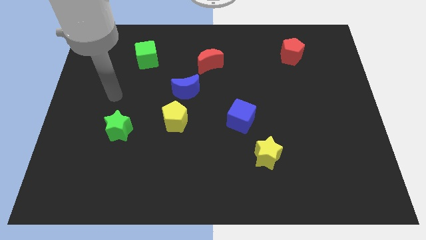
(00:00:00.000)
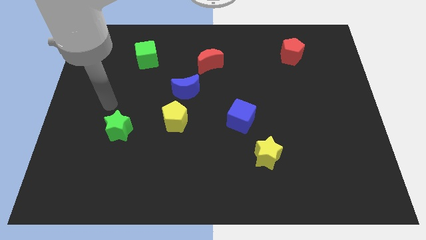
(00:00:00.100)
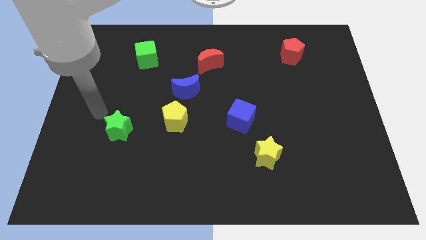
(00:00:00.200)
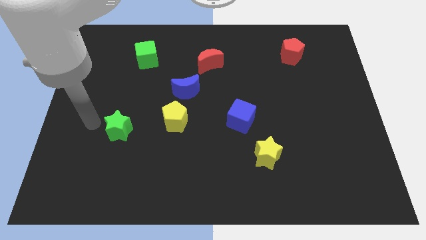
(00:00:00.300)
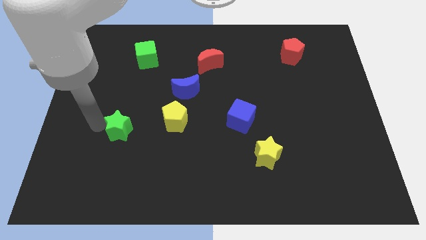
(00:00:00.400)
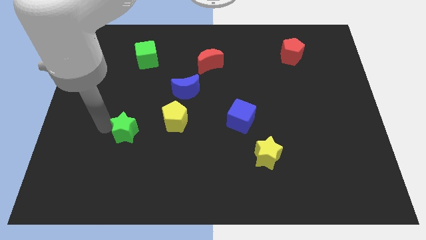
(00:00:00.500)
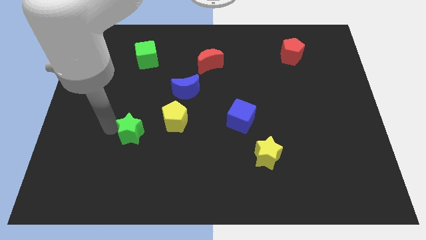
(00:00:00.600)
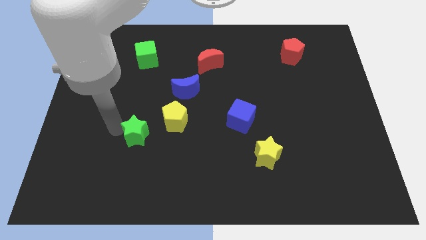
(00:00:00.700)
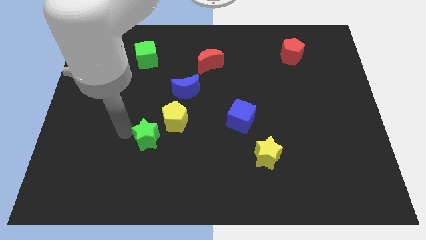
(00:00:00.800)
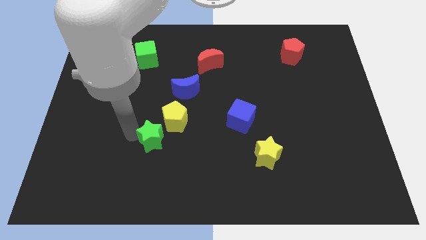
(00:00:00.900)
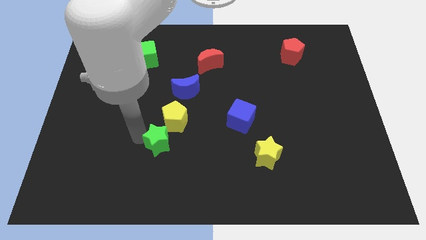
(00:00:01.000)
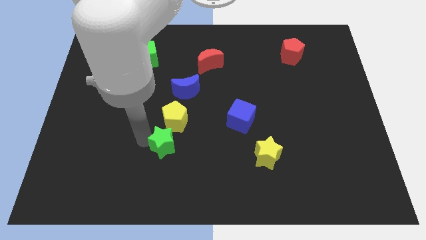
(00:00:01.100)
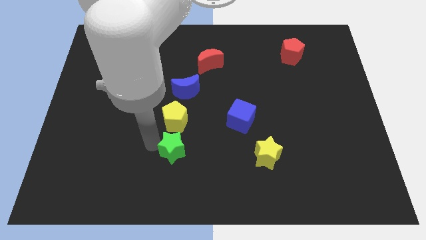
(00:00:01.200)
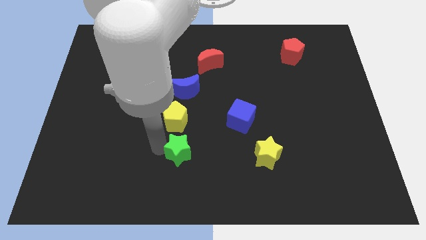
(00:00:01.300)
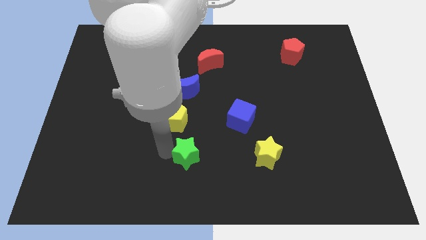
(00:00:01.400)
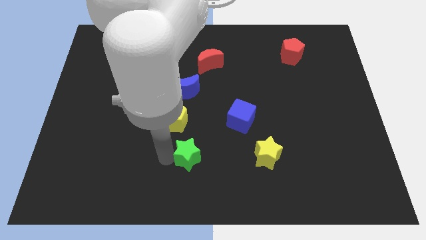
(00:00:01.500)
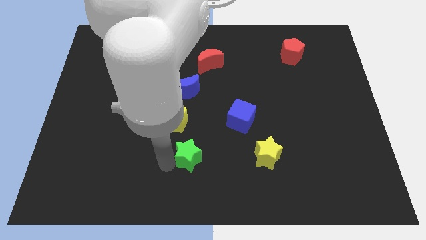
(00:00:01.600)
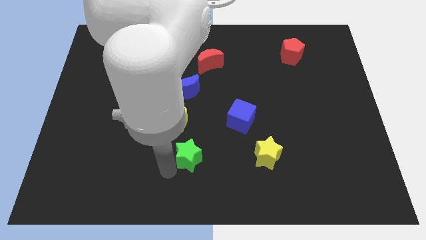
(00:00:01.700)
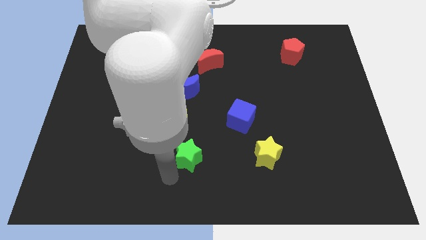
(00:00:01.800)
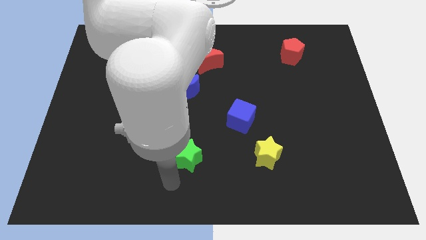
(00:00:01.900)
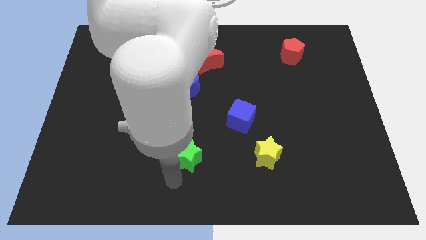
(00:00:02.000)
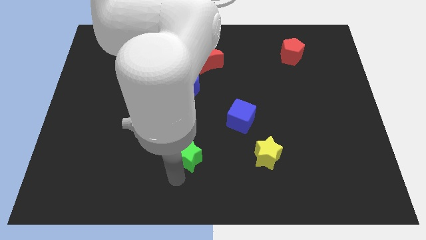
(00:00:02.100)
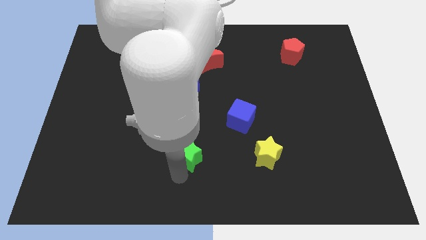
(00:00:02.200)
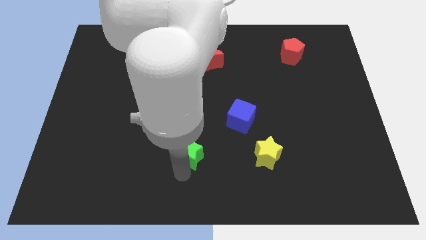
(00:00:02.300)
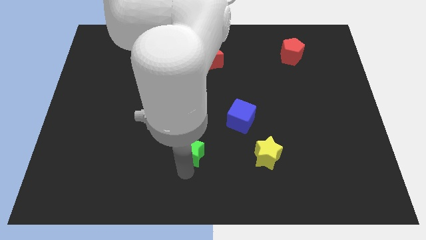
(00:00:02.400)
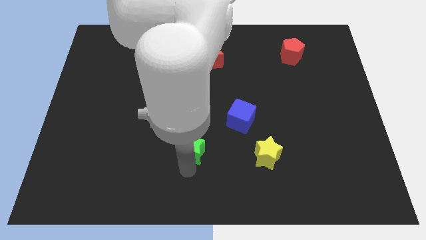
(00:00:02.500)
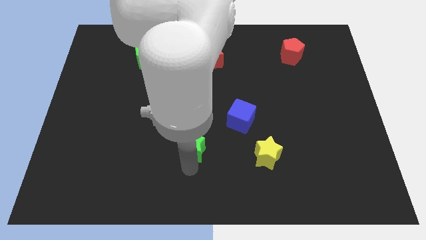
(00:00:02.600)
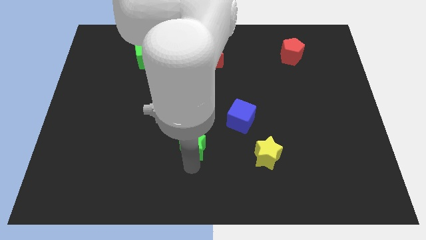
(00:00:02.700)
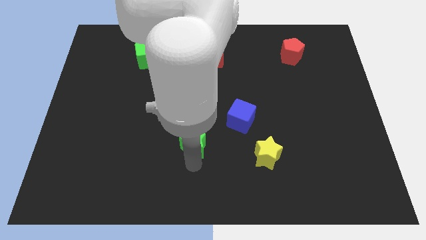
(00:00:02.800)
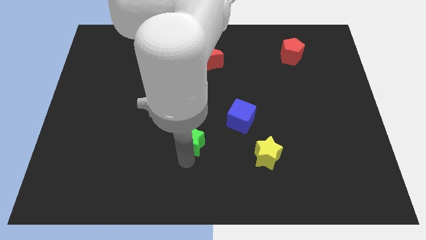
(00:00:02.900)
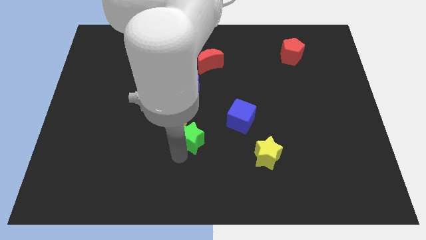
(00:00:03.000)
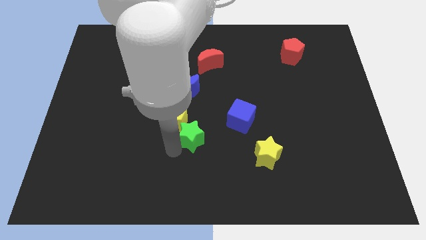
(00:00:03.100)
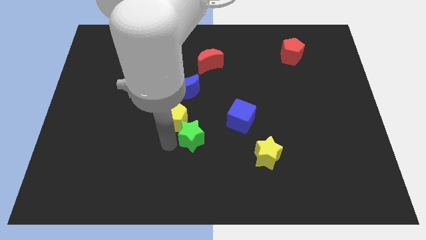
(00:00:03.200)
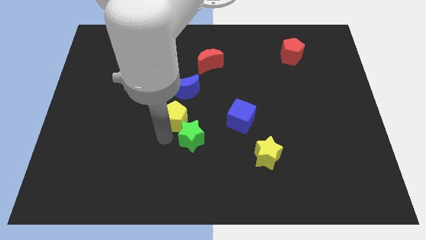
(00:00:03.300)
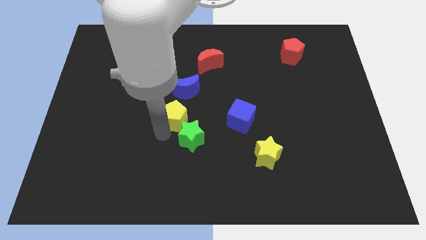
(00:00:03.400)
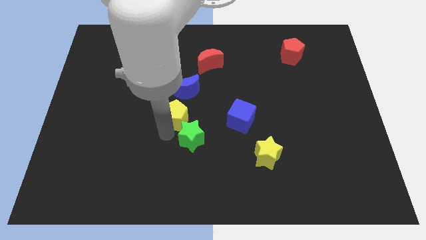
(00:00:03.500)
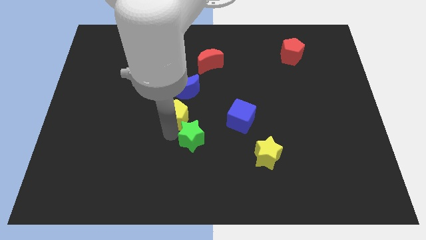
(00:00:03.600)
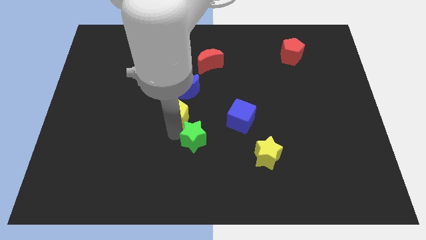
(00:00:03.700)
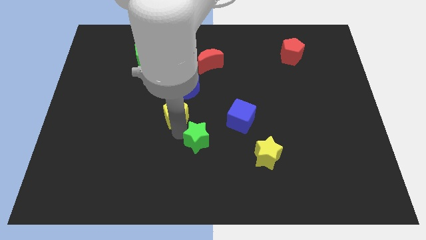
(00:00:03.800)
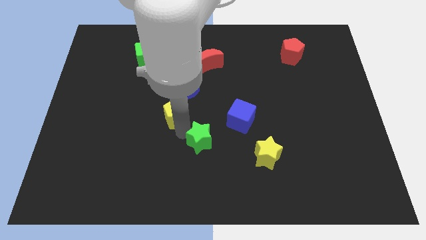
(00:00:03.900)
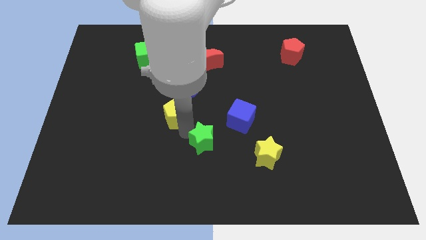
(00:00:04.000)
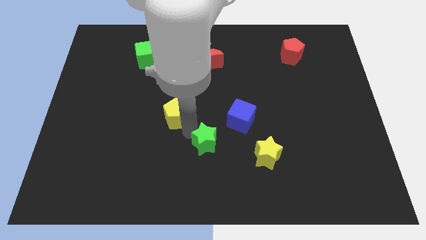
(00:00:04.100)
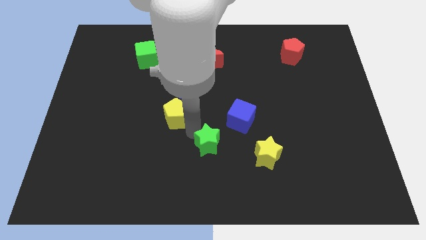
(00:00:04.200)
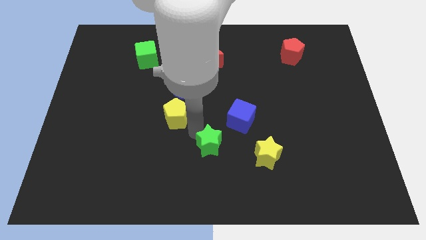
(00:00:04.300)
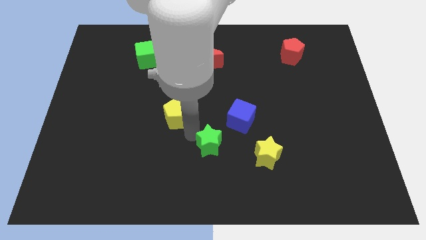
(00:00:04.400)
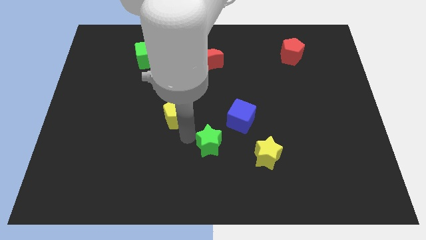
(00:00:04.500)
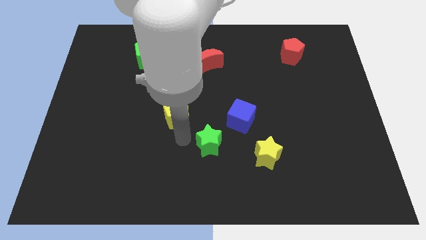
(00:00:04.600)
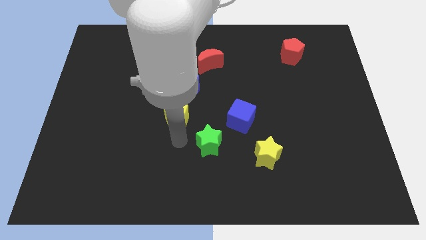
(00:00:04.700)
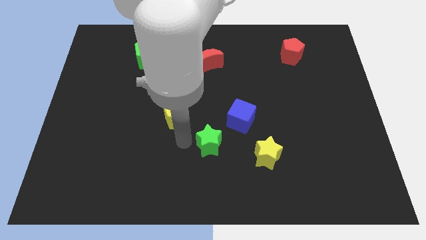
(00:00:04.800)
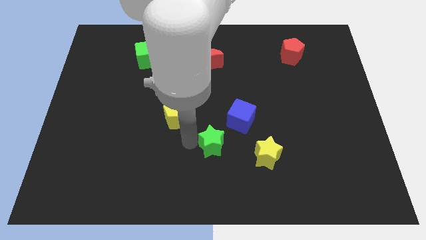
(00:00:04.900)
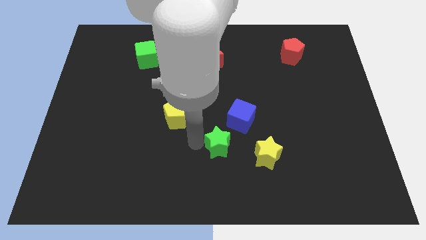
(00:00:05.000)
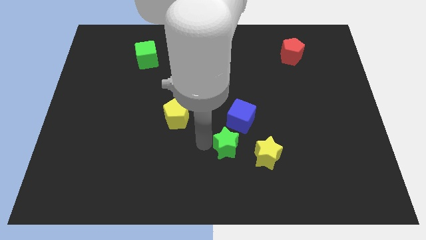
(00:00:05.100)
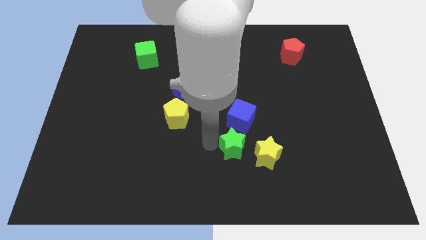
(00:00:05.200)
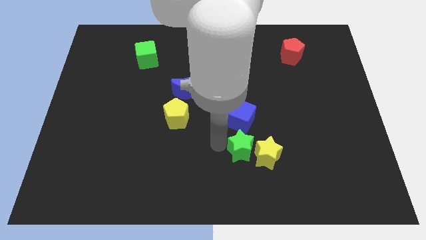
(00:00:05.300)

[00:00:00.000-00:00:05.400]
move the green star close to the yellow star

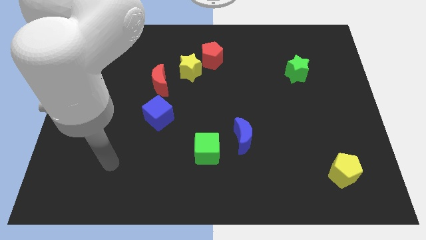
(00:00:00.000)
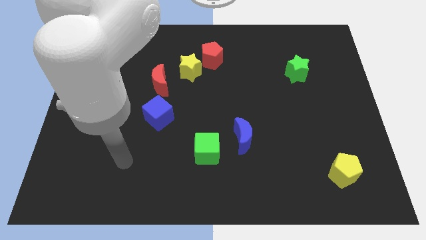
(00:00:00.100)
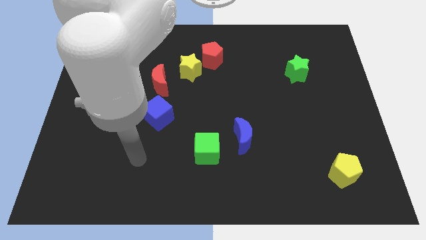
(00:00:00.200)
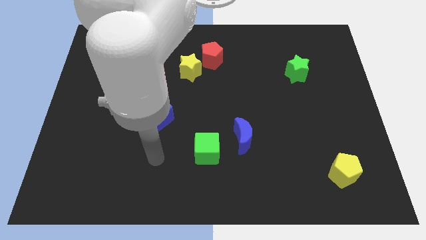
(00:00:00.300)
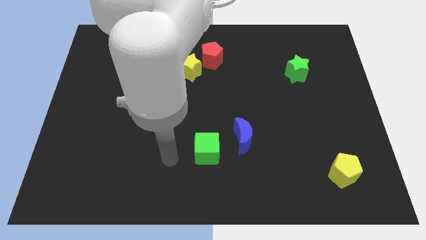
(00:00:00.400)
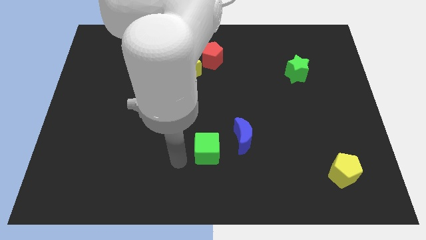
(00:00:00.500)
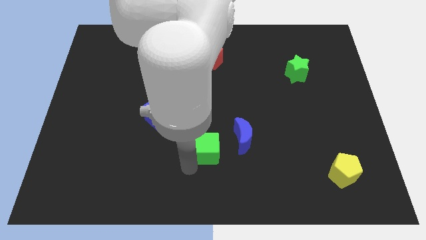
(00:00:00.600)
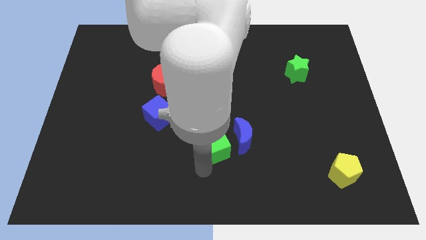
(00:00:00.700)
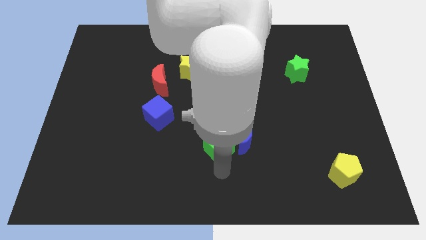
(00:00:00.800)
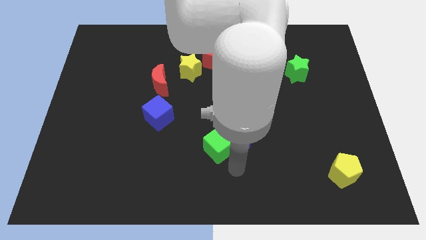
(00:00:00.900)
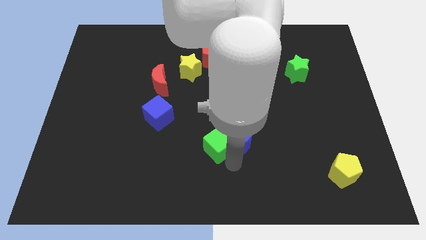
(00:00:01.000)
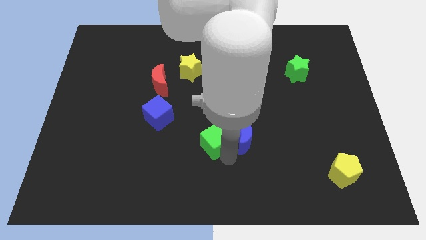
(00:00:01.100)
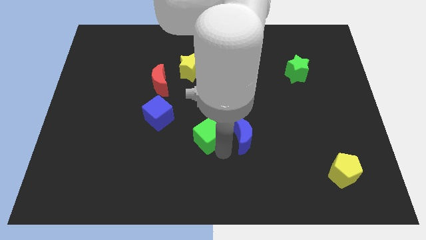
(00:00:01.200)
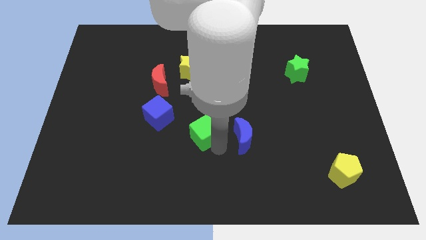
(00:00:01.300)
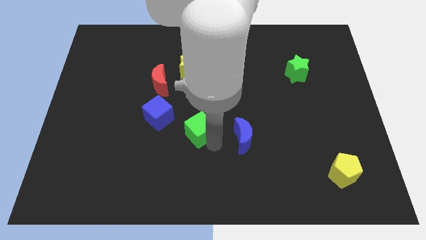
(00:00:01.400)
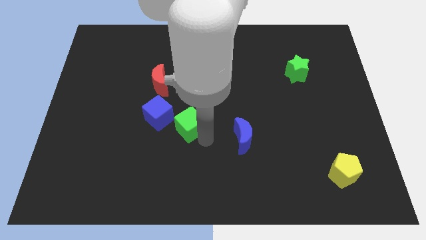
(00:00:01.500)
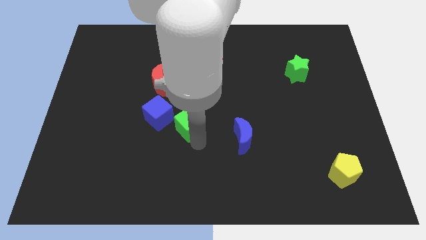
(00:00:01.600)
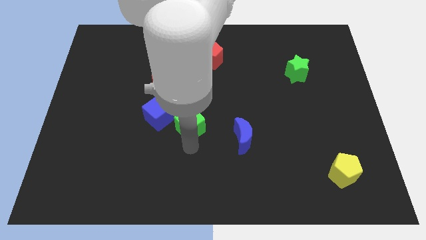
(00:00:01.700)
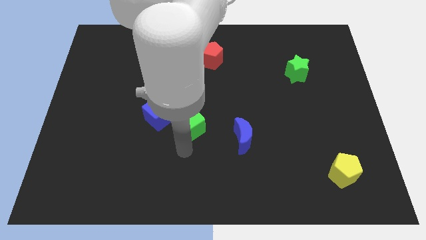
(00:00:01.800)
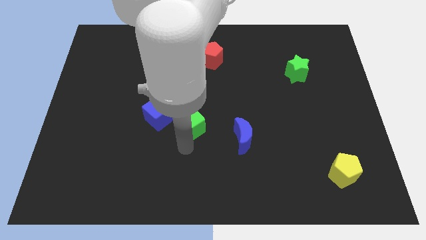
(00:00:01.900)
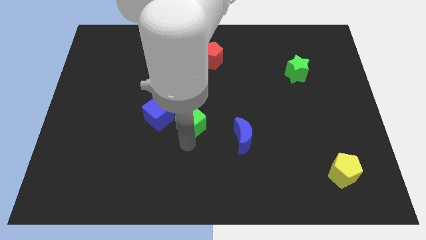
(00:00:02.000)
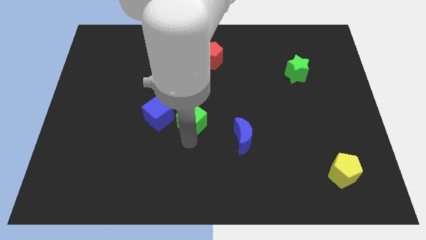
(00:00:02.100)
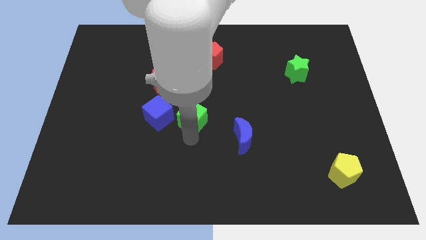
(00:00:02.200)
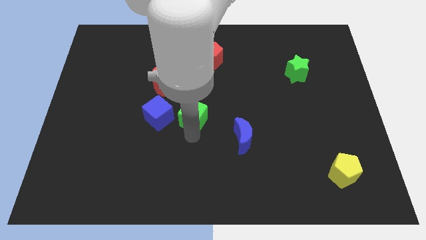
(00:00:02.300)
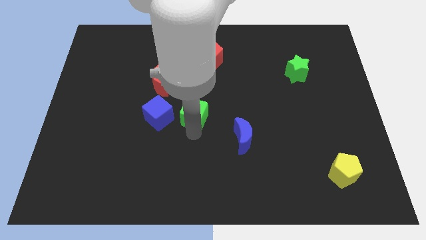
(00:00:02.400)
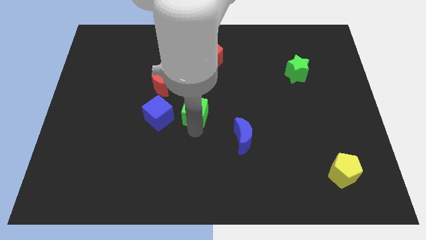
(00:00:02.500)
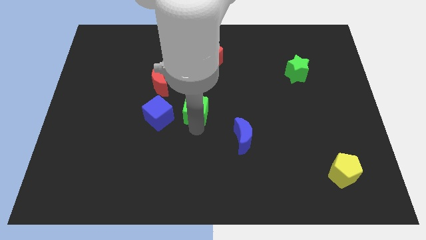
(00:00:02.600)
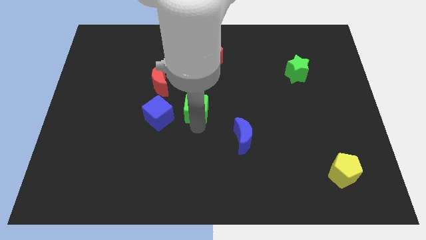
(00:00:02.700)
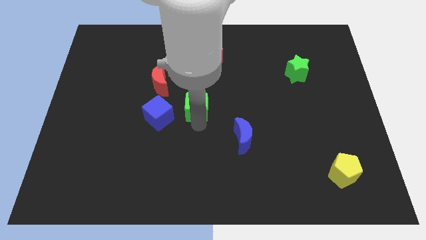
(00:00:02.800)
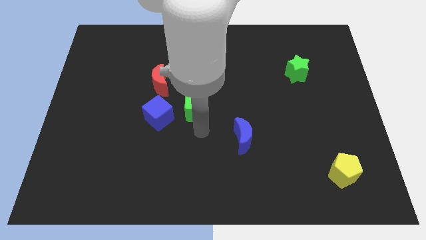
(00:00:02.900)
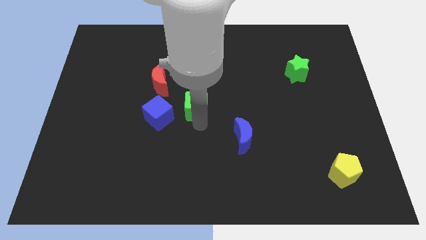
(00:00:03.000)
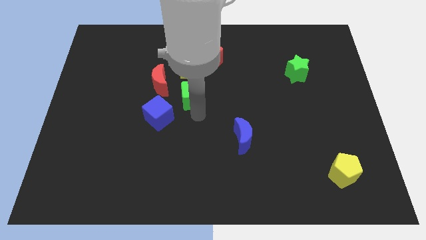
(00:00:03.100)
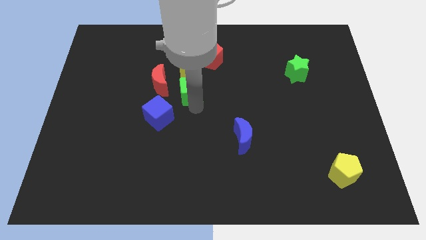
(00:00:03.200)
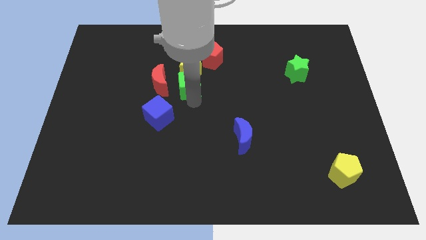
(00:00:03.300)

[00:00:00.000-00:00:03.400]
move the green cube towards the yellow star
